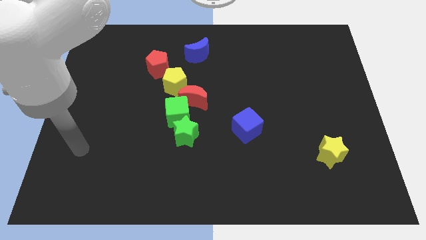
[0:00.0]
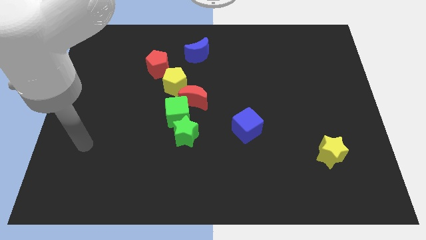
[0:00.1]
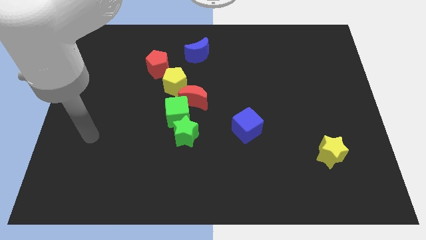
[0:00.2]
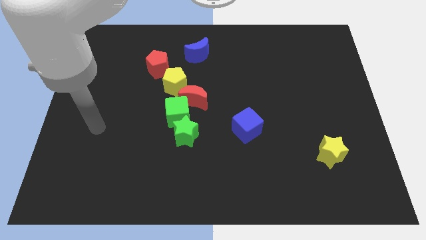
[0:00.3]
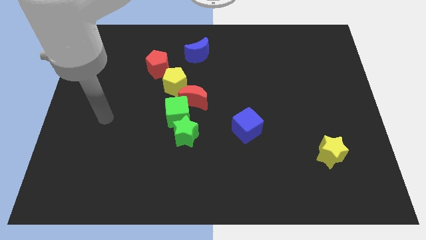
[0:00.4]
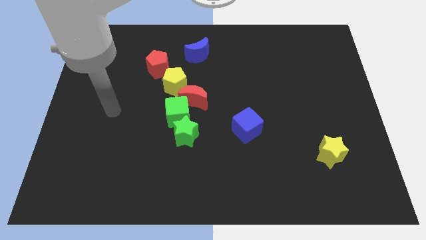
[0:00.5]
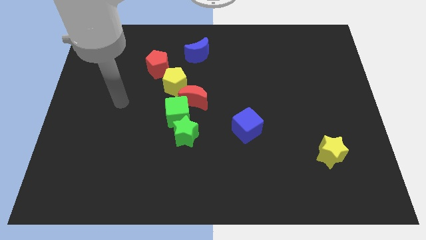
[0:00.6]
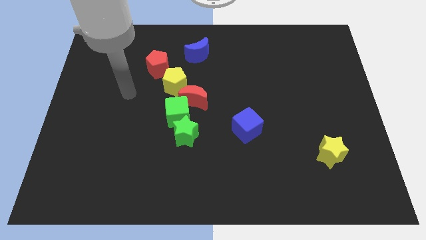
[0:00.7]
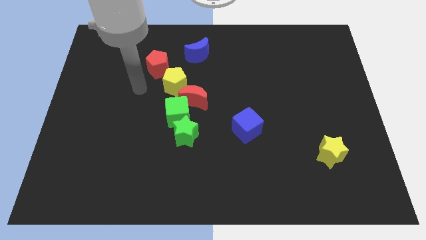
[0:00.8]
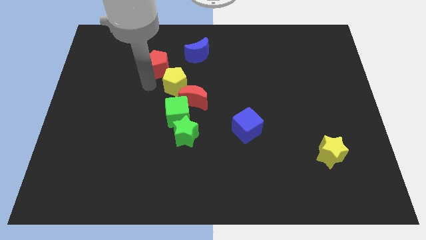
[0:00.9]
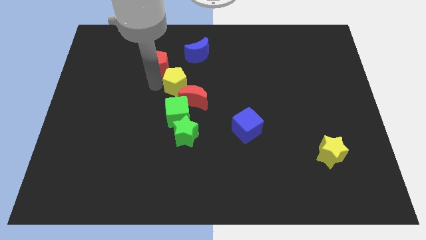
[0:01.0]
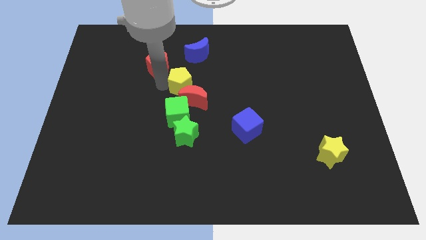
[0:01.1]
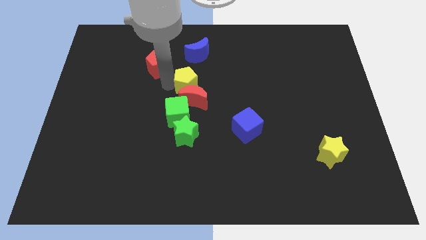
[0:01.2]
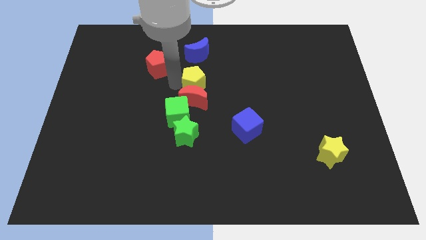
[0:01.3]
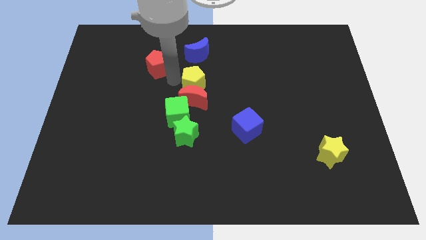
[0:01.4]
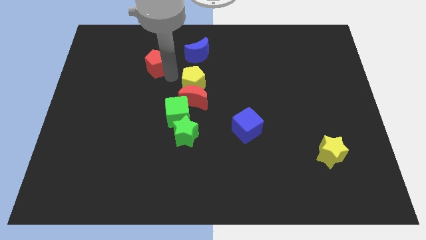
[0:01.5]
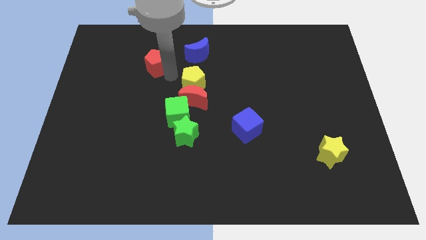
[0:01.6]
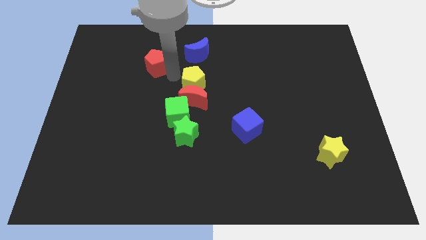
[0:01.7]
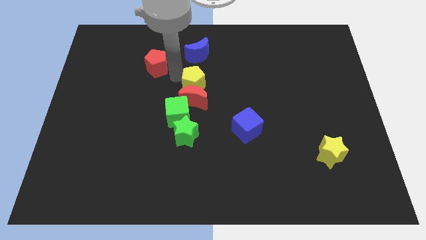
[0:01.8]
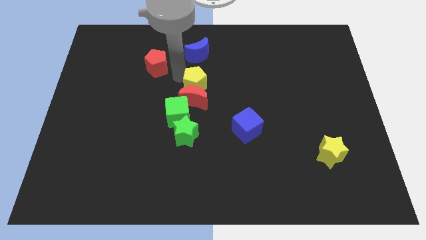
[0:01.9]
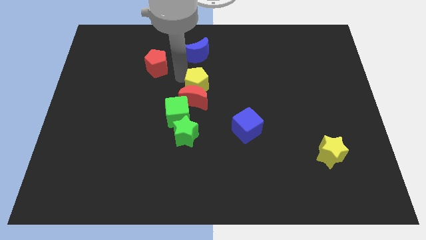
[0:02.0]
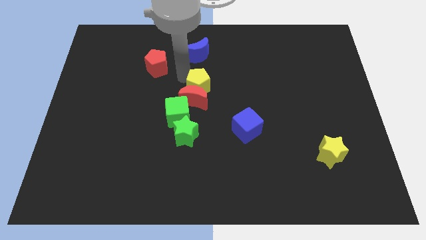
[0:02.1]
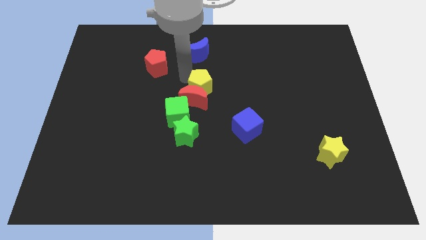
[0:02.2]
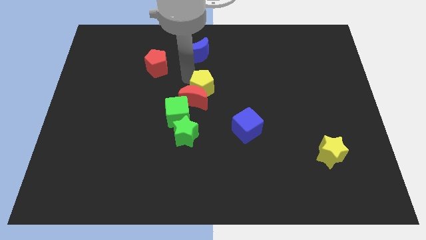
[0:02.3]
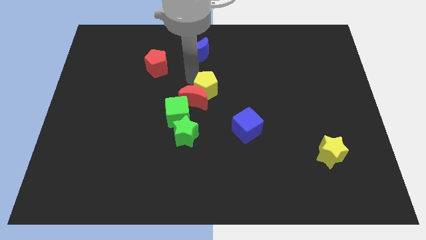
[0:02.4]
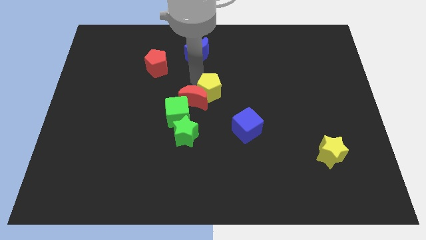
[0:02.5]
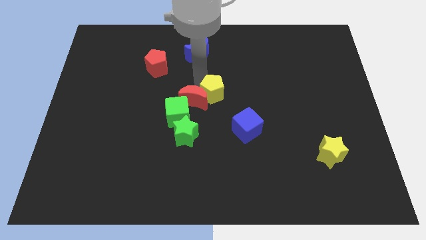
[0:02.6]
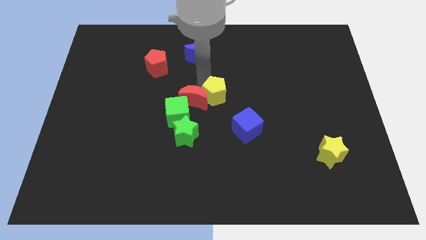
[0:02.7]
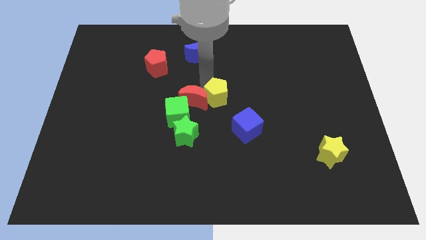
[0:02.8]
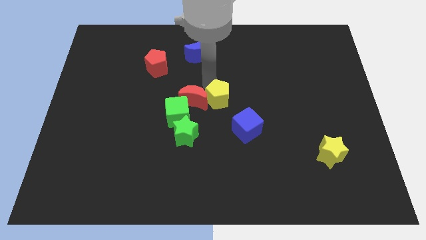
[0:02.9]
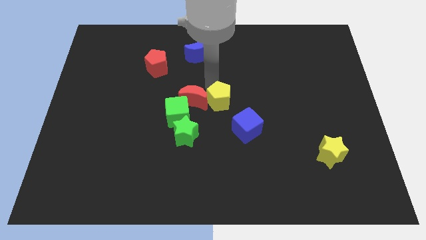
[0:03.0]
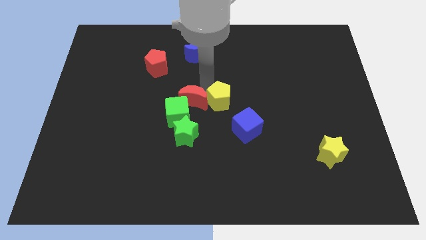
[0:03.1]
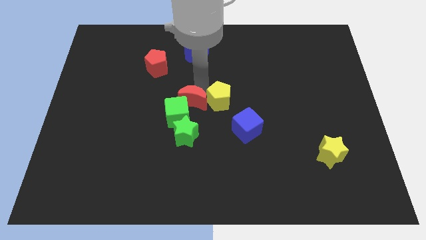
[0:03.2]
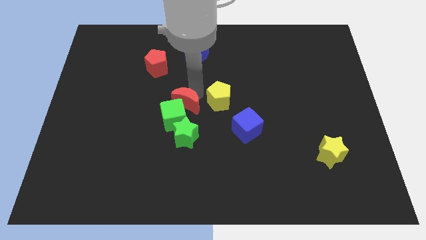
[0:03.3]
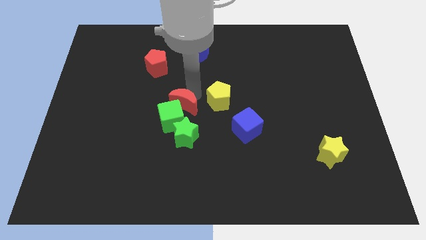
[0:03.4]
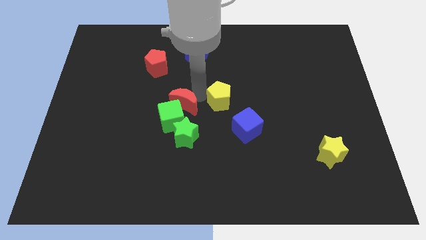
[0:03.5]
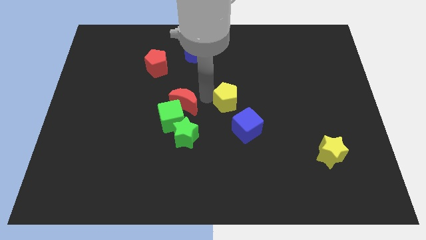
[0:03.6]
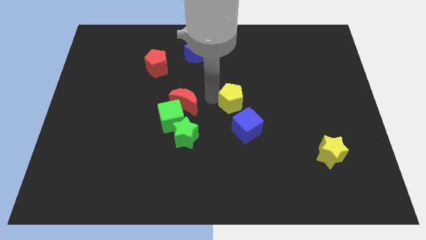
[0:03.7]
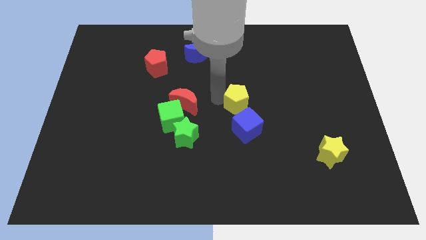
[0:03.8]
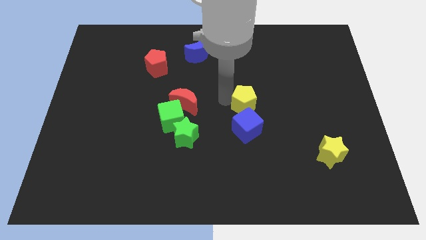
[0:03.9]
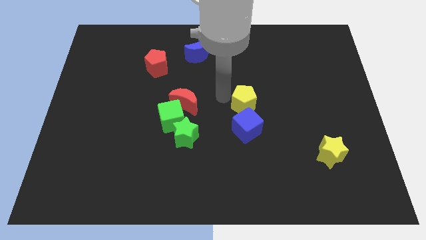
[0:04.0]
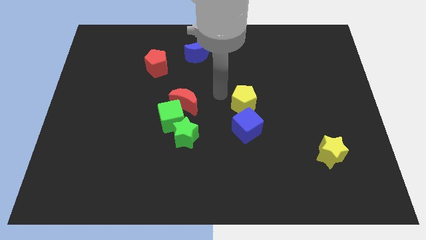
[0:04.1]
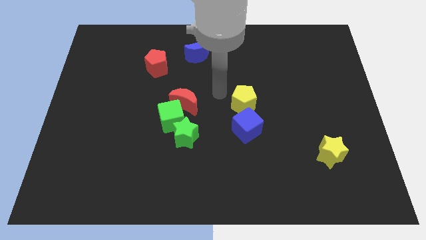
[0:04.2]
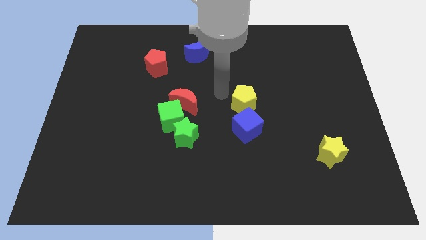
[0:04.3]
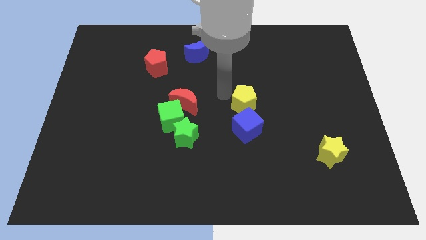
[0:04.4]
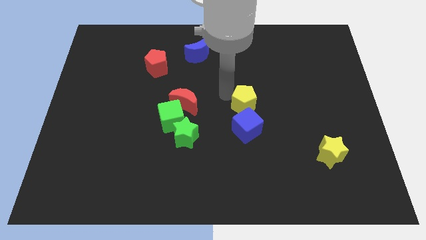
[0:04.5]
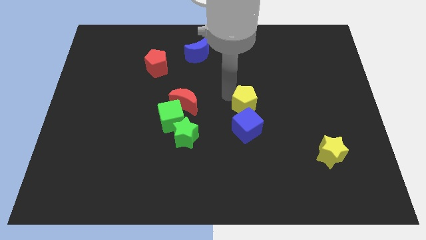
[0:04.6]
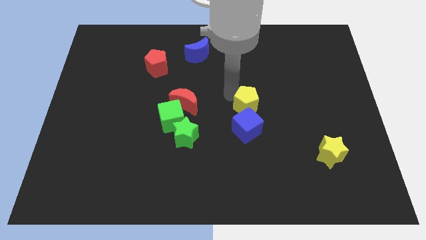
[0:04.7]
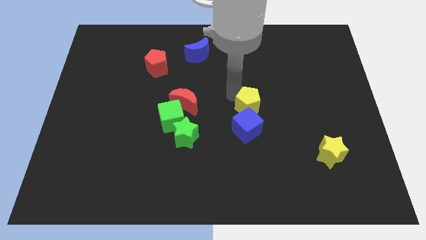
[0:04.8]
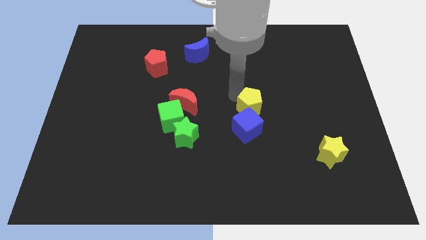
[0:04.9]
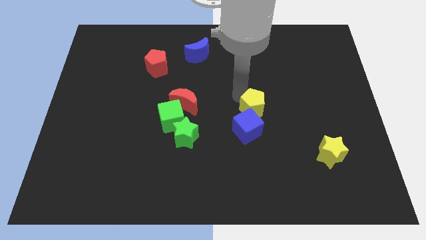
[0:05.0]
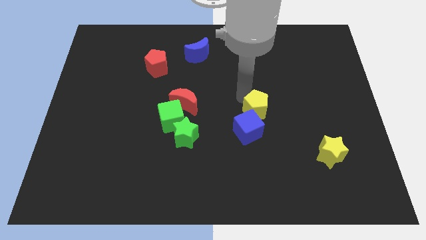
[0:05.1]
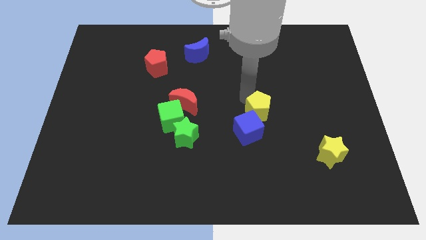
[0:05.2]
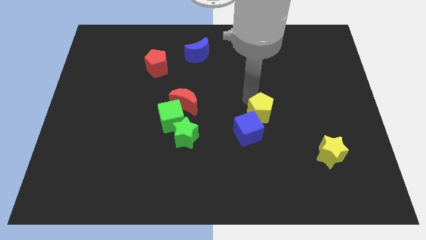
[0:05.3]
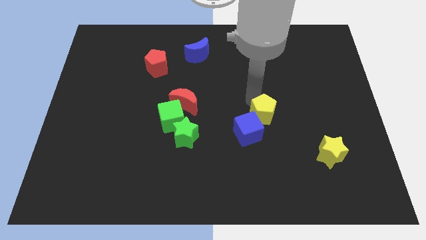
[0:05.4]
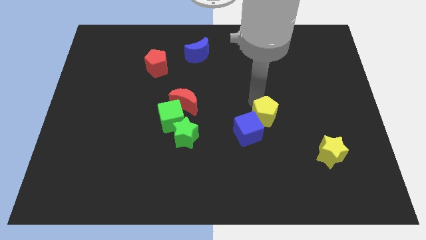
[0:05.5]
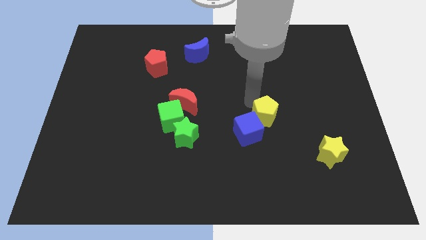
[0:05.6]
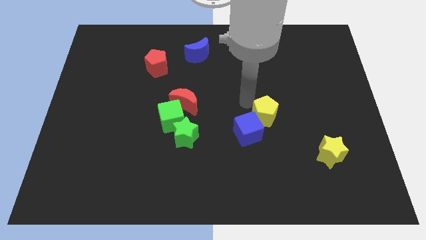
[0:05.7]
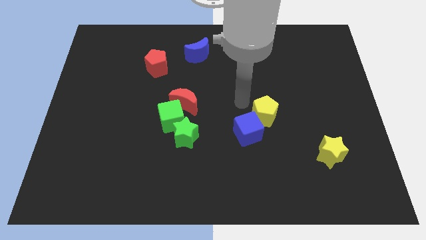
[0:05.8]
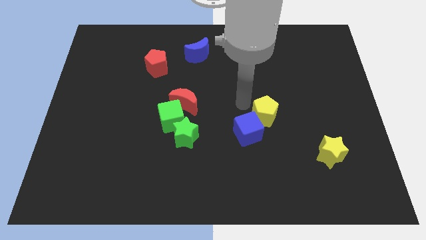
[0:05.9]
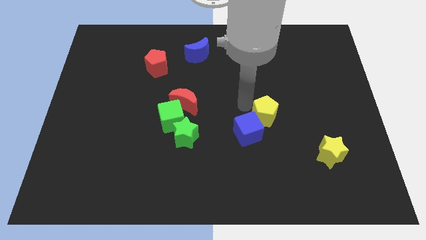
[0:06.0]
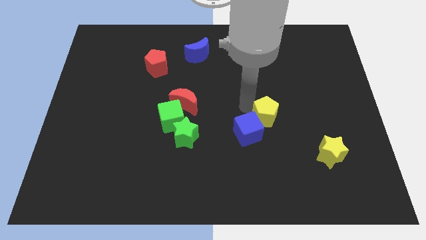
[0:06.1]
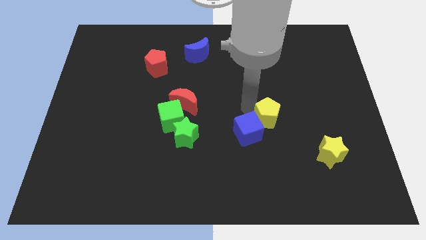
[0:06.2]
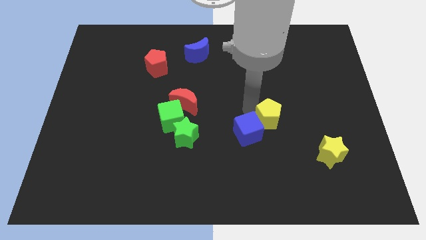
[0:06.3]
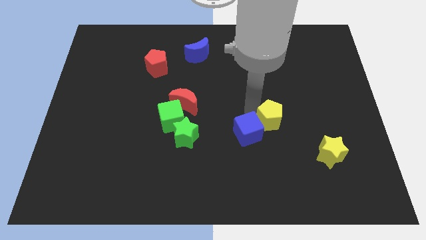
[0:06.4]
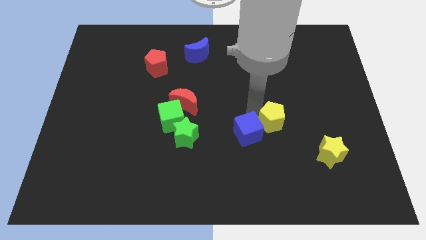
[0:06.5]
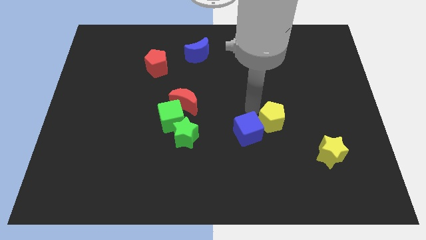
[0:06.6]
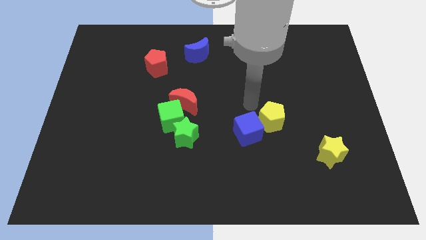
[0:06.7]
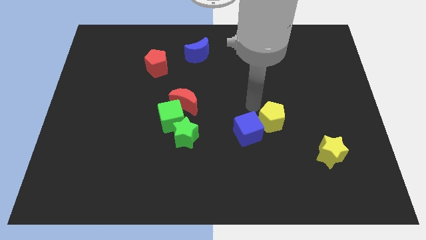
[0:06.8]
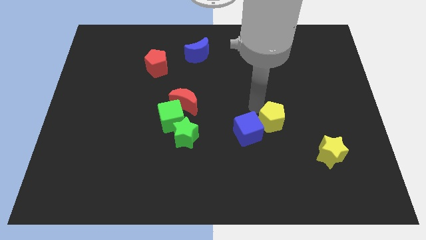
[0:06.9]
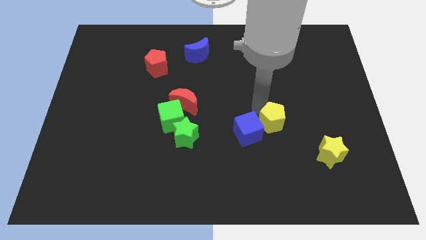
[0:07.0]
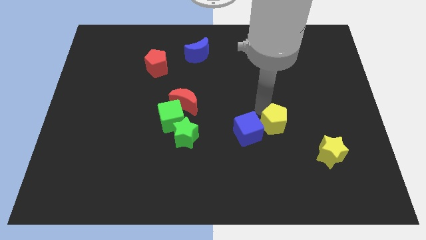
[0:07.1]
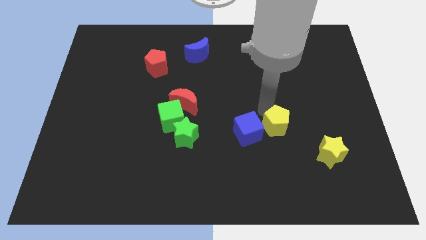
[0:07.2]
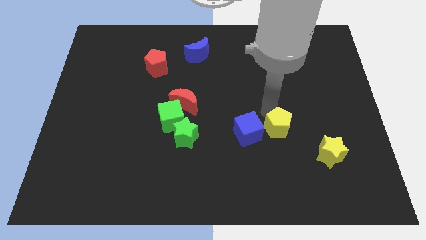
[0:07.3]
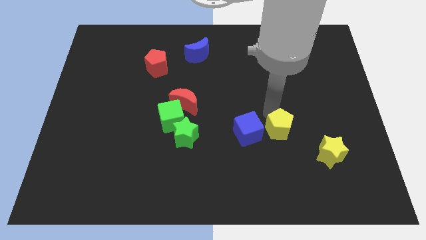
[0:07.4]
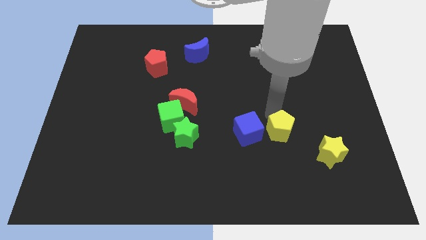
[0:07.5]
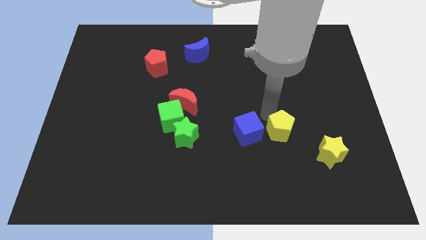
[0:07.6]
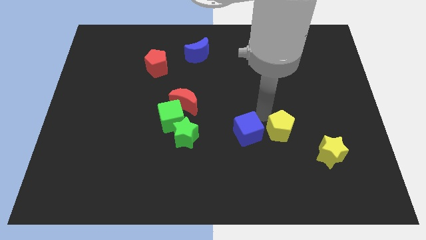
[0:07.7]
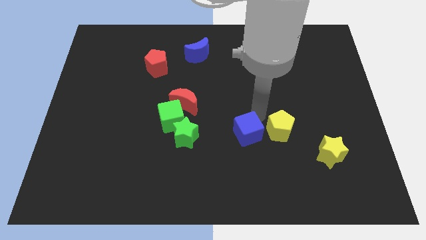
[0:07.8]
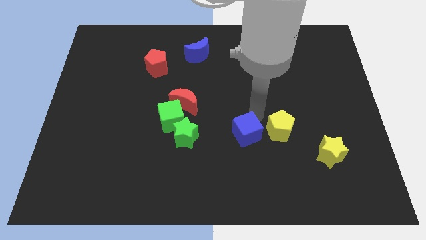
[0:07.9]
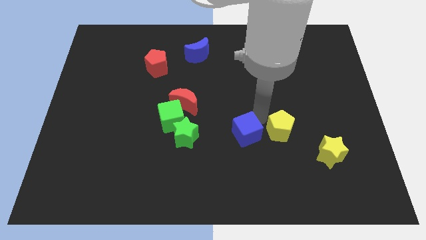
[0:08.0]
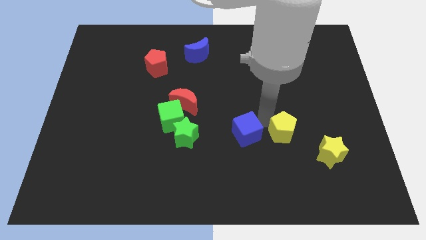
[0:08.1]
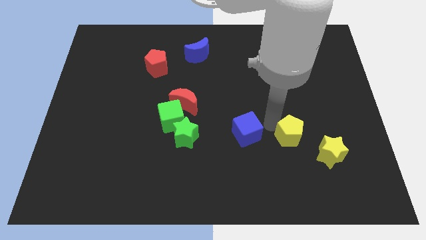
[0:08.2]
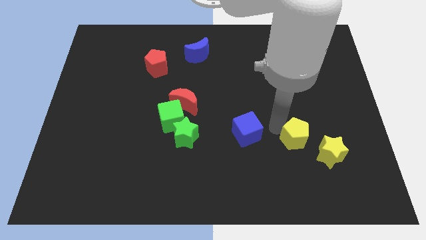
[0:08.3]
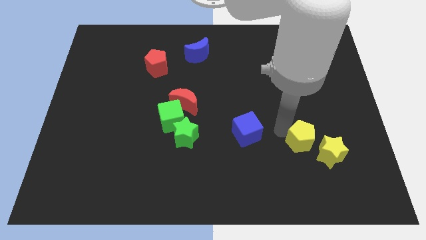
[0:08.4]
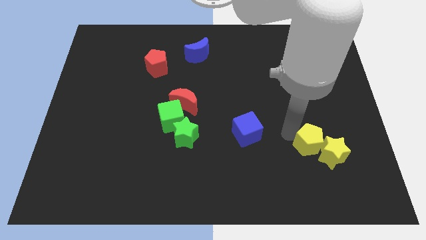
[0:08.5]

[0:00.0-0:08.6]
move the yellow pentagon close to the yellow star
